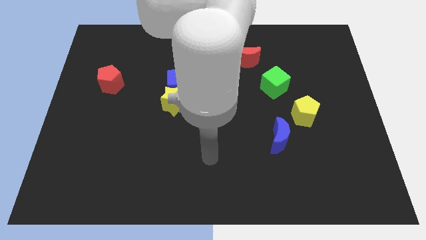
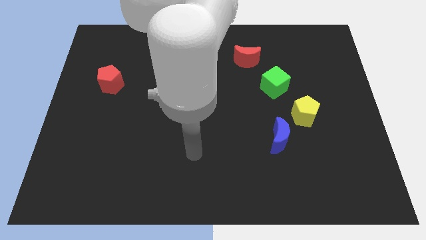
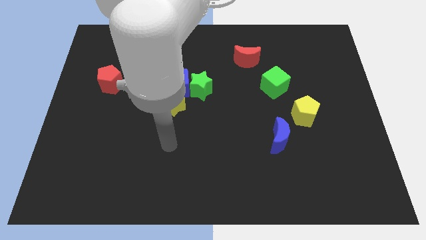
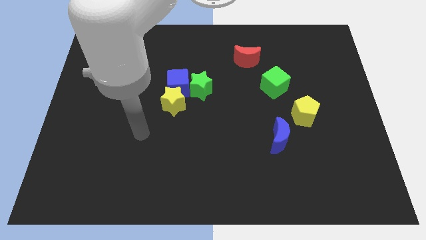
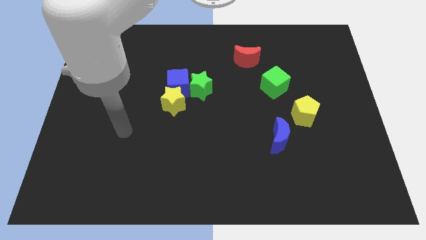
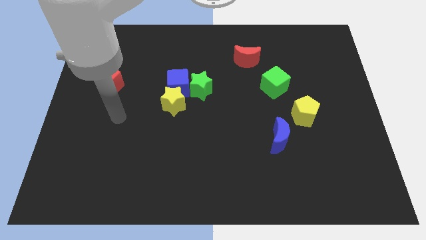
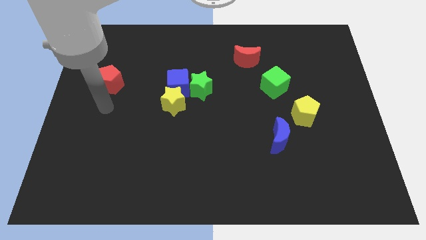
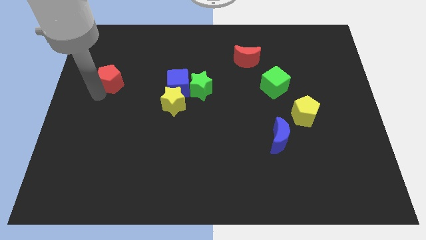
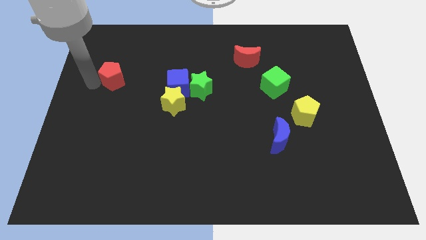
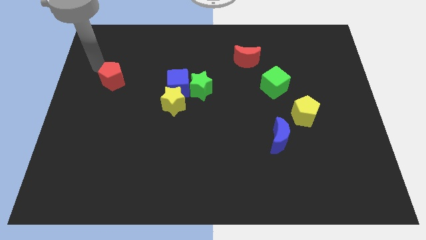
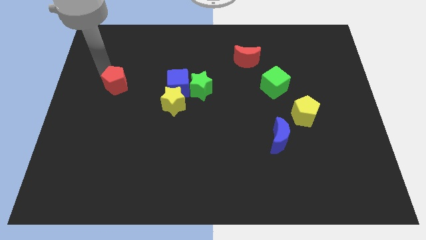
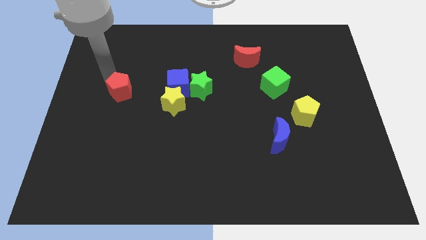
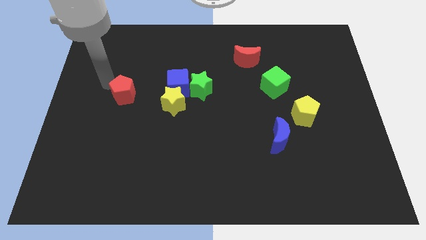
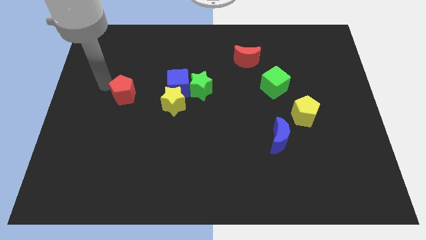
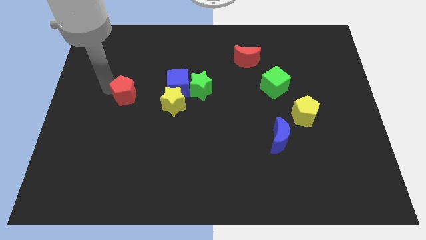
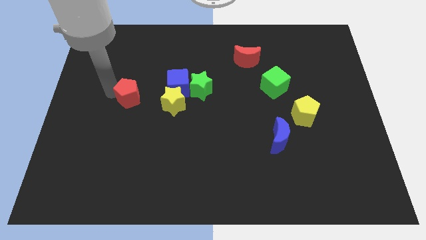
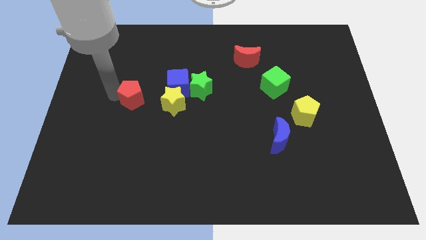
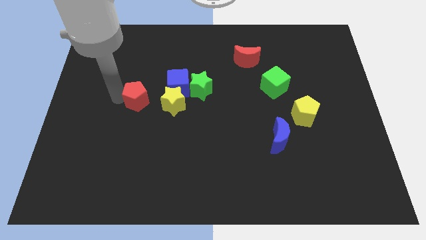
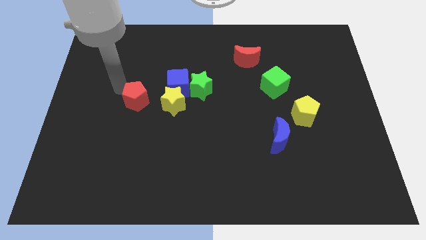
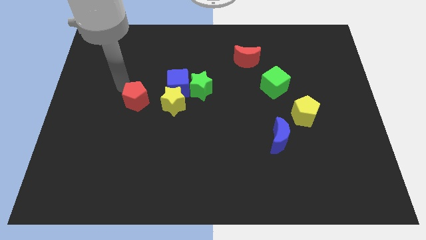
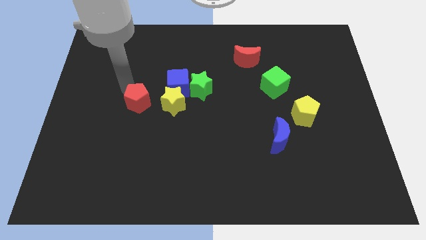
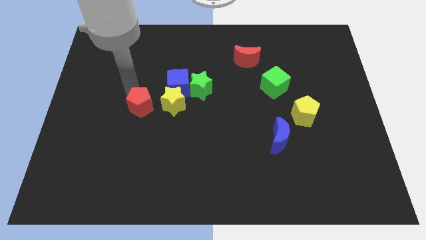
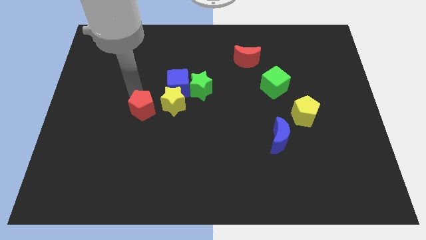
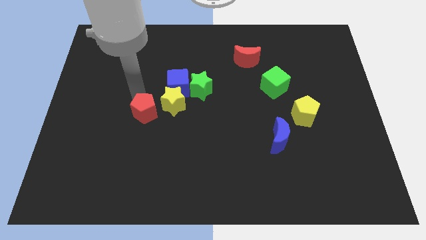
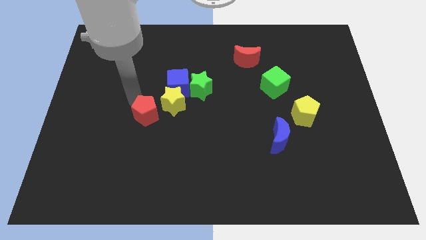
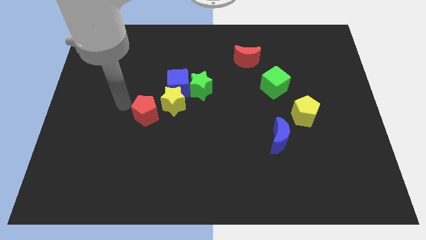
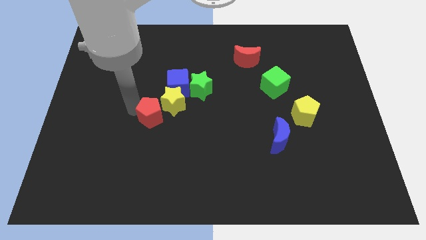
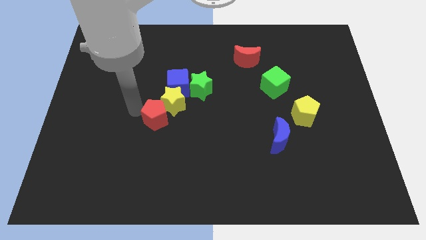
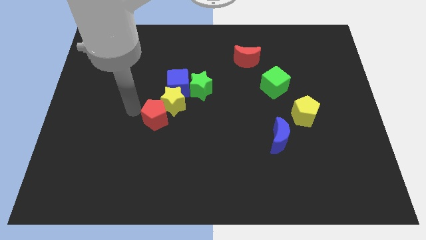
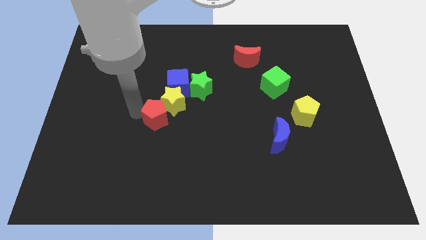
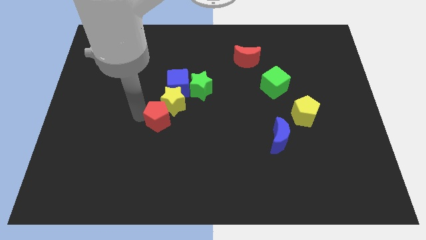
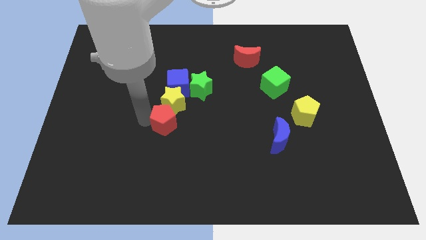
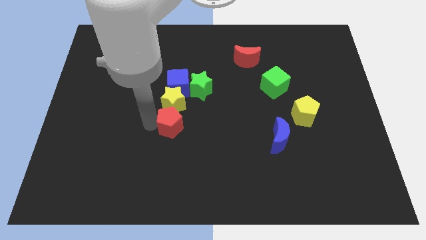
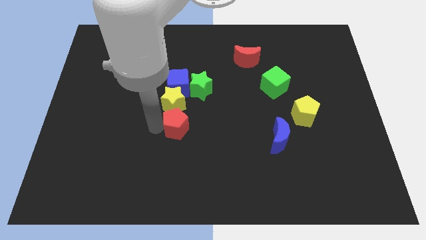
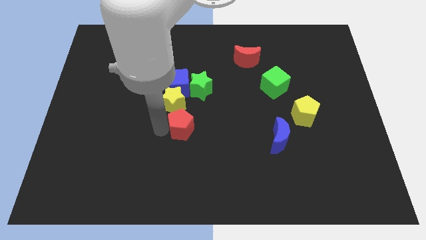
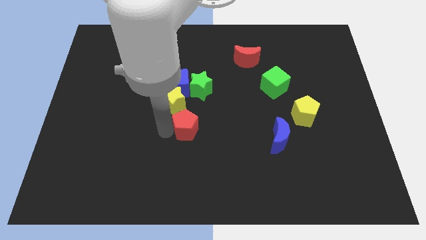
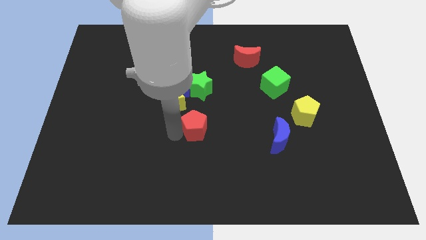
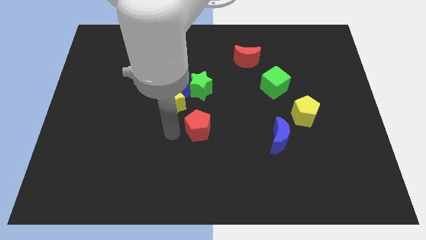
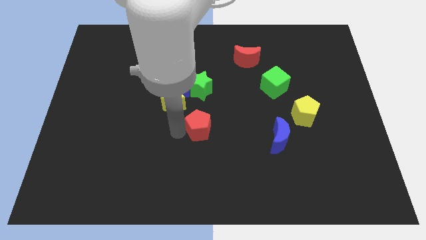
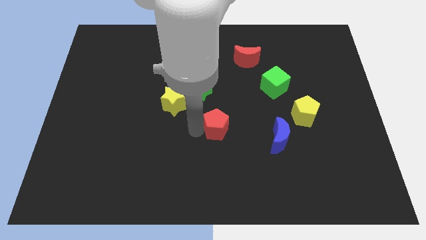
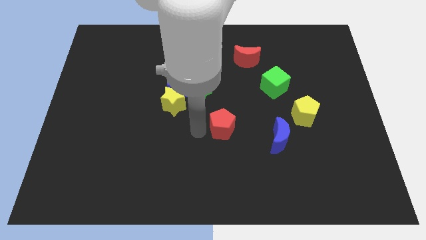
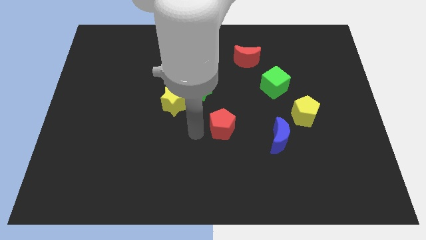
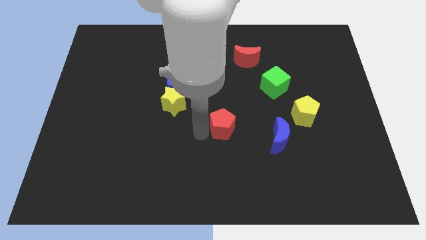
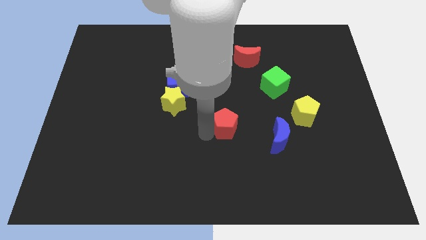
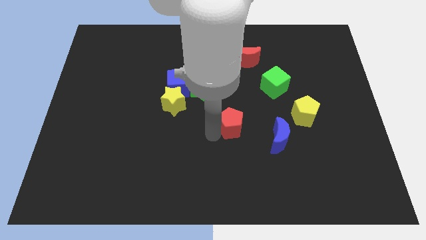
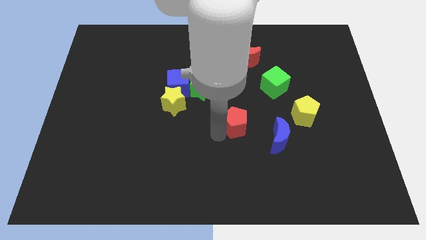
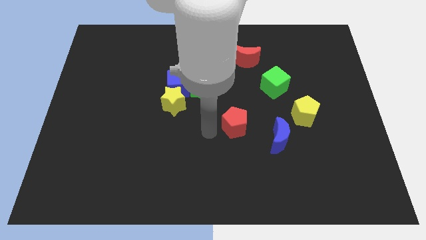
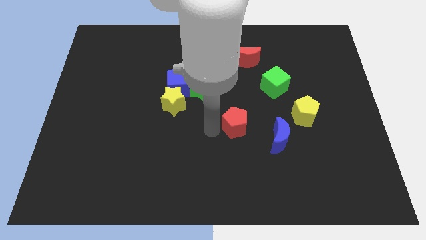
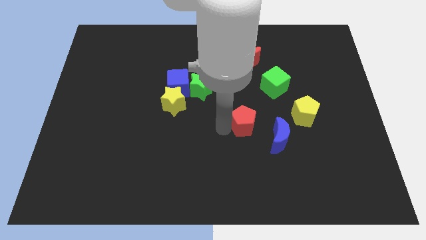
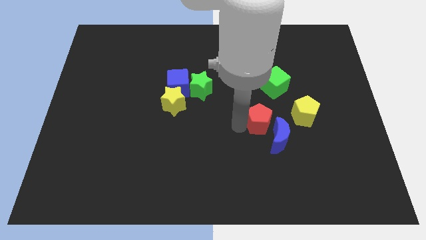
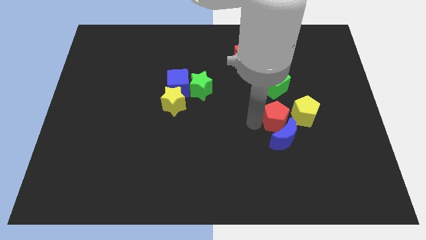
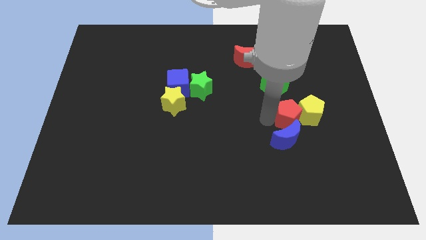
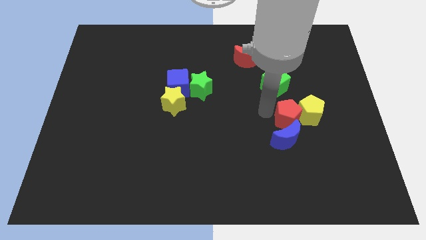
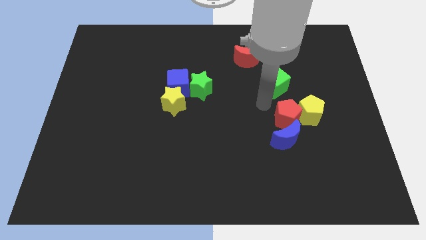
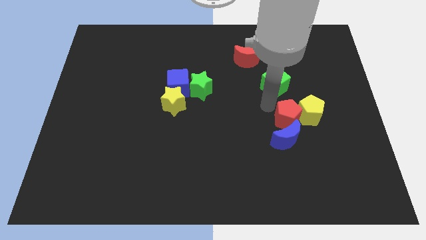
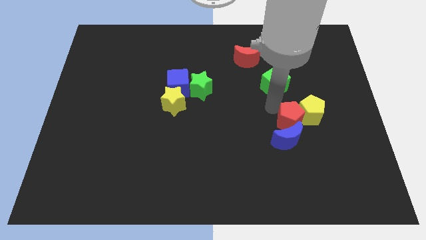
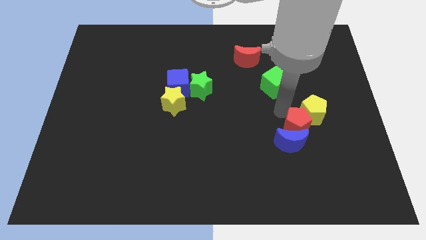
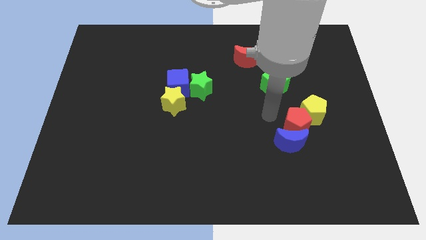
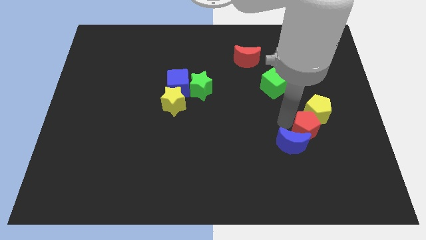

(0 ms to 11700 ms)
slide the red pentagon just right of the blue moon

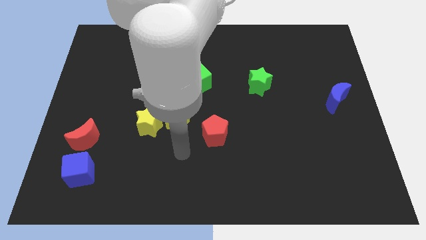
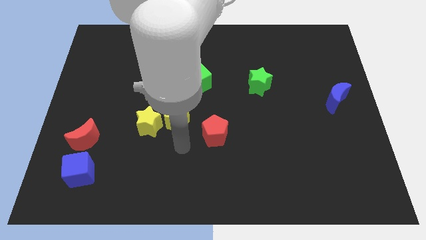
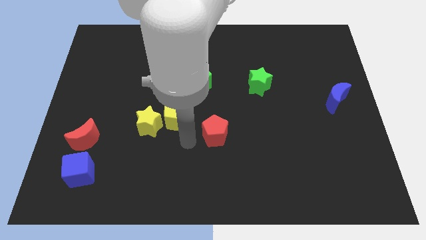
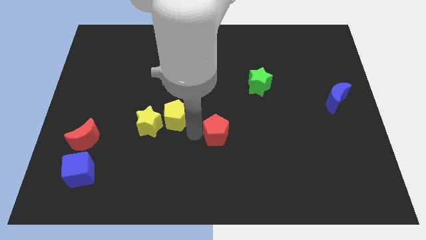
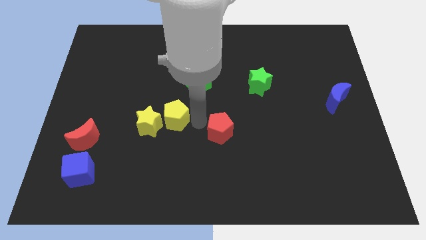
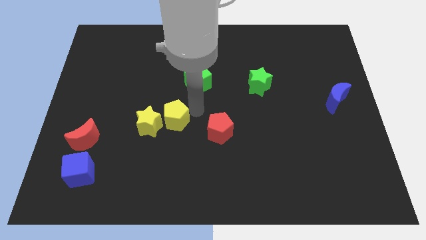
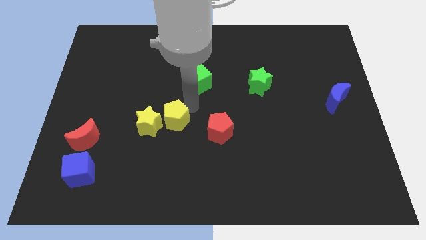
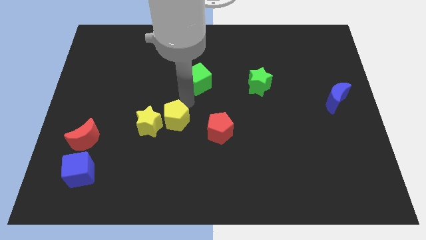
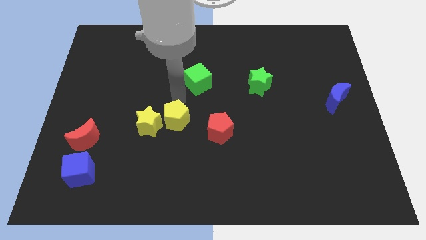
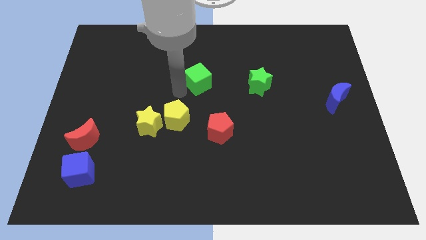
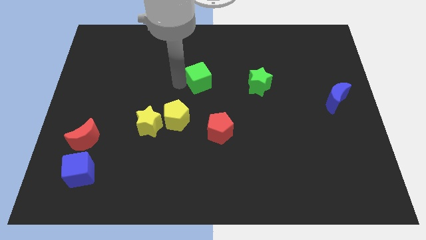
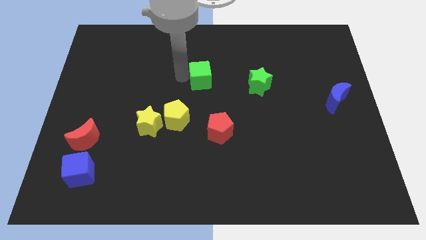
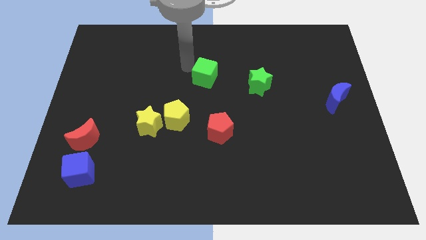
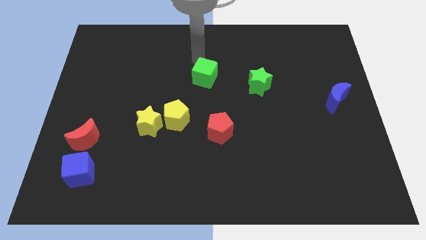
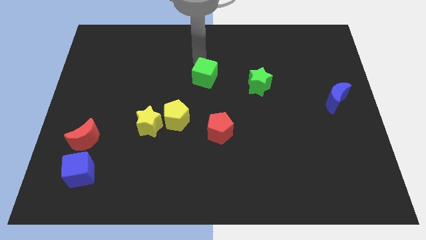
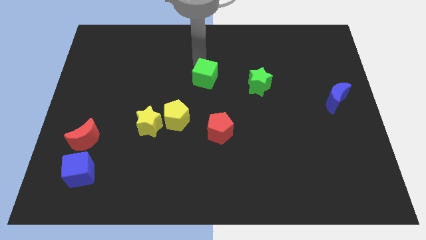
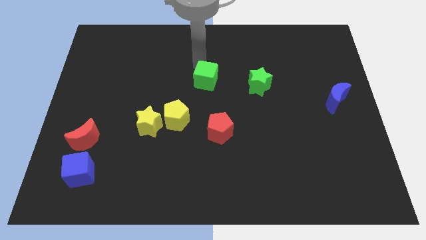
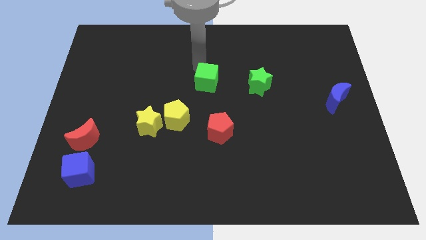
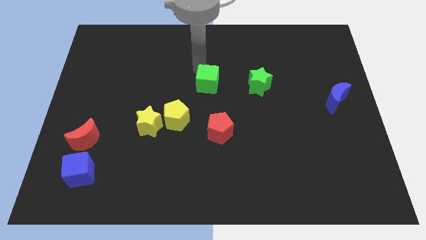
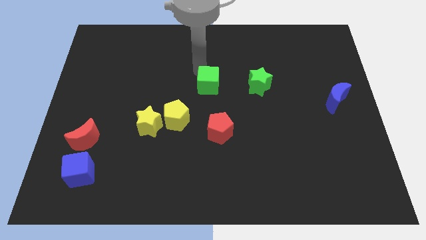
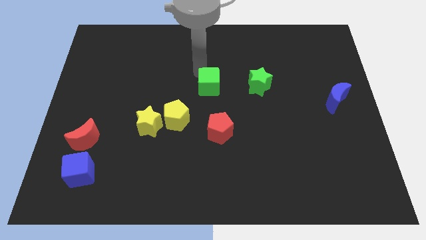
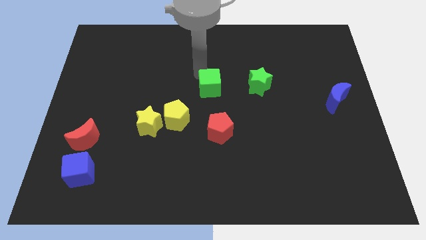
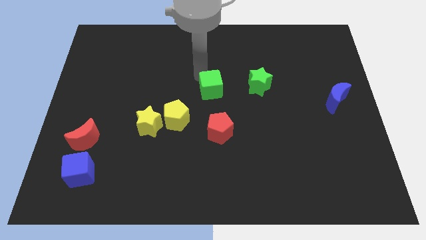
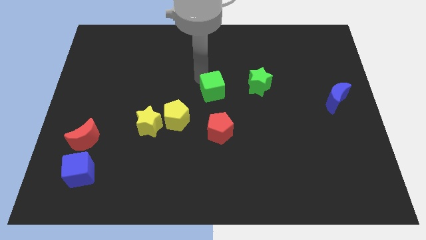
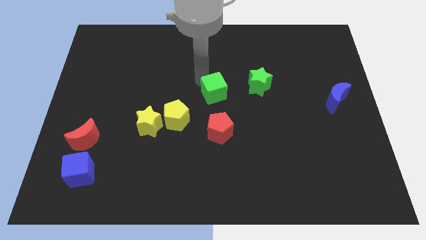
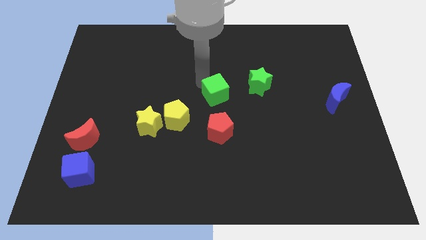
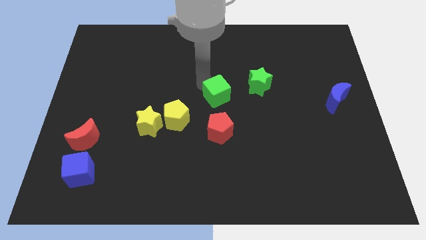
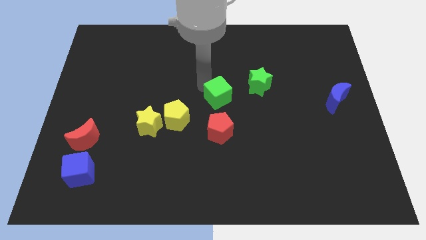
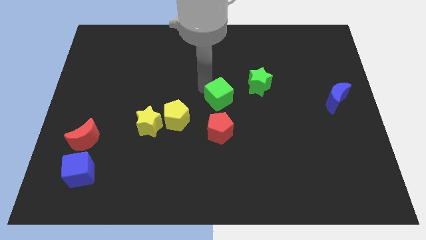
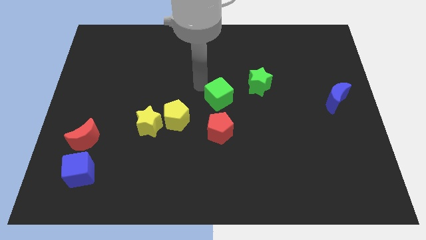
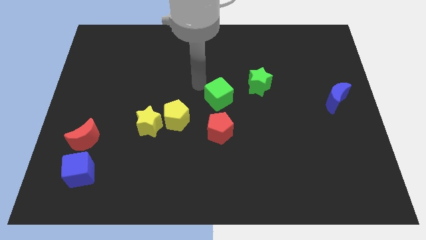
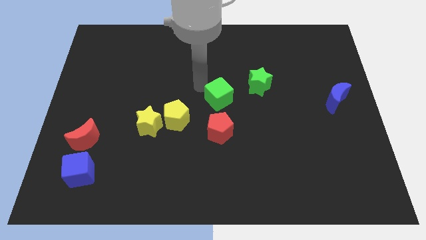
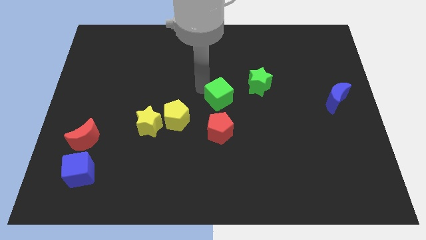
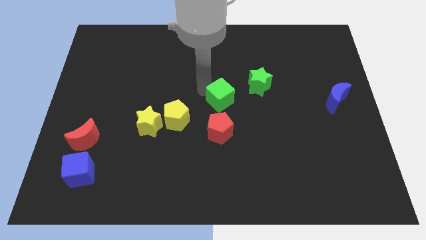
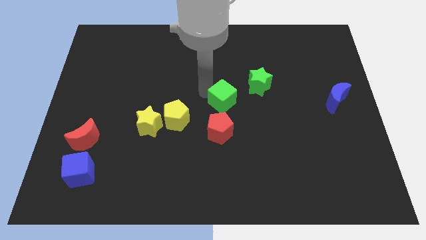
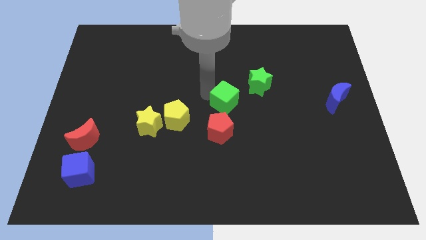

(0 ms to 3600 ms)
push the green cube diagonally up and to the right of the red pentagon
